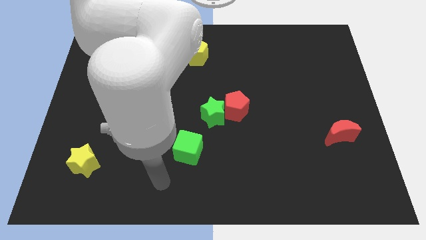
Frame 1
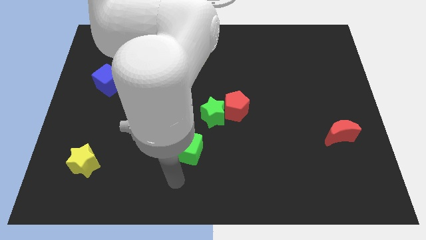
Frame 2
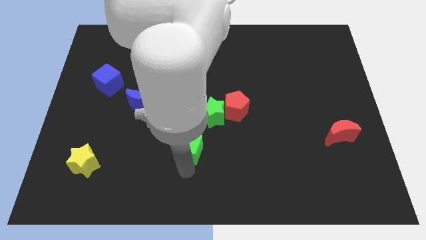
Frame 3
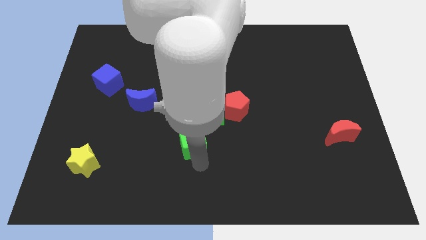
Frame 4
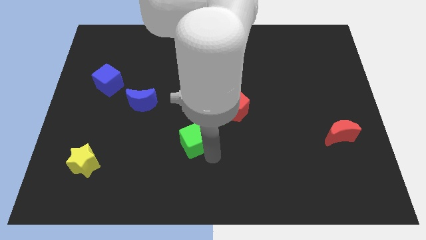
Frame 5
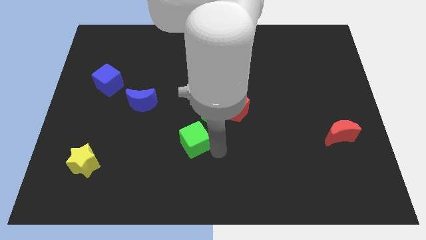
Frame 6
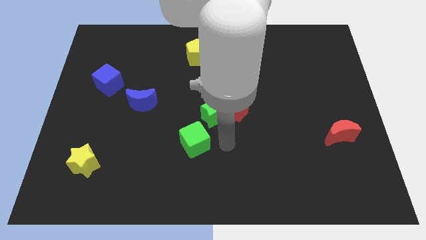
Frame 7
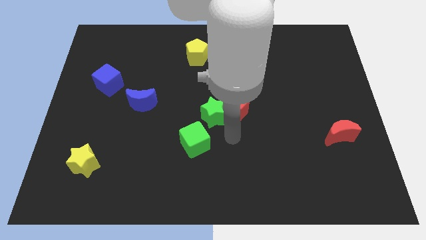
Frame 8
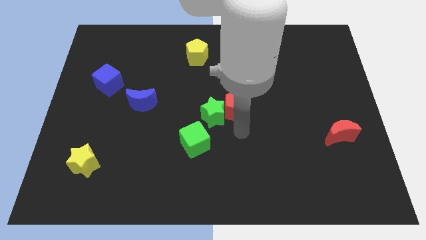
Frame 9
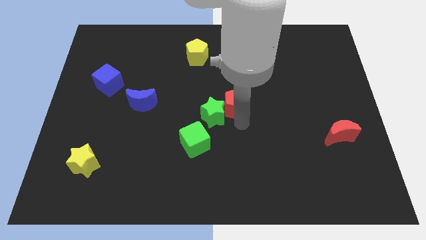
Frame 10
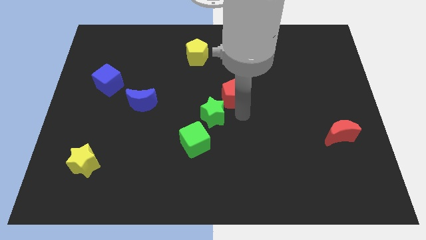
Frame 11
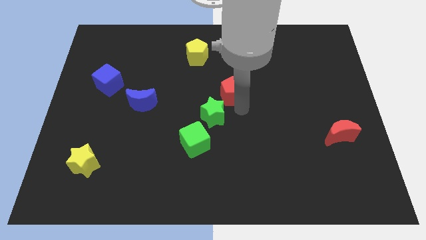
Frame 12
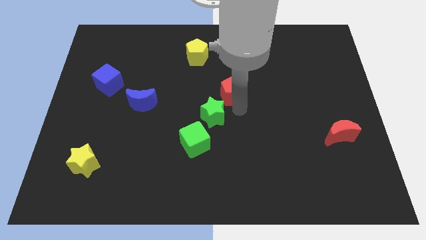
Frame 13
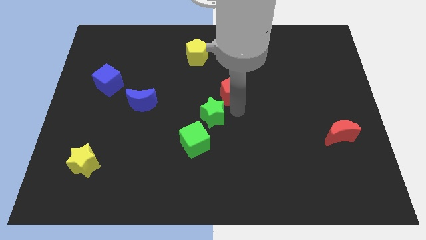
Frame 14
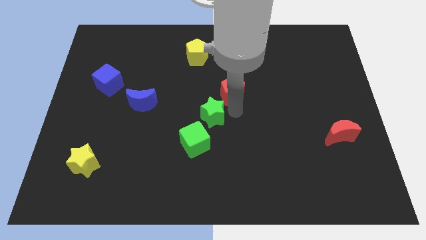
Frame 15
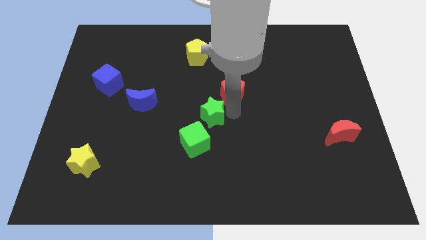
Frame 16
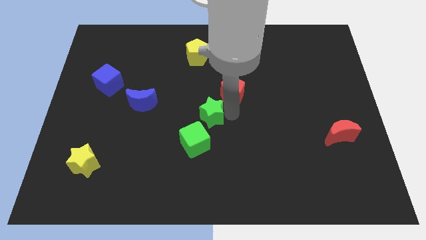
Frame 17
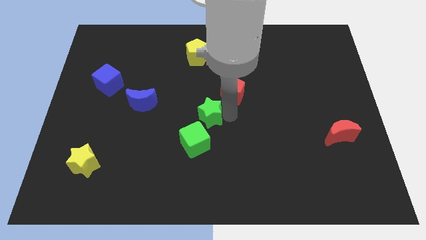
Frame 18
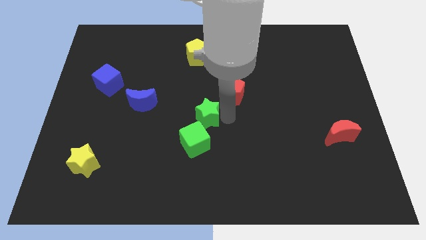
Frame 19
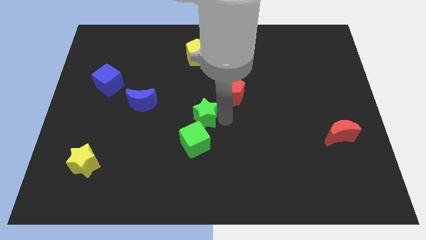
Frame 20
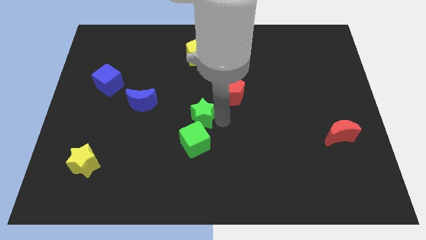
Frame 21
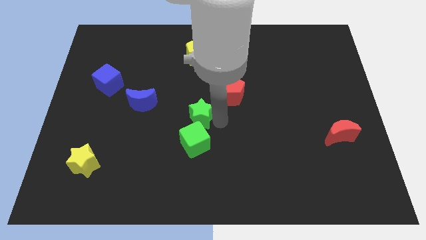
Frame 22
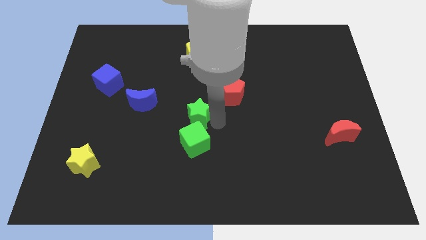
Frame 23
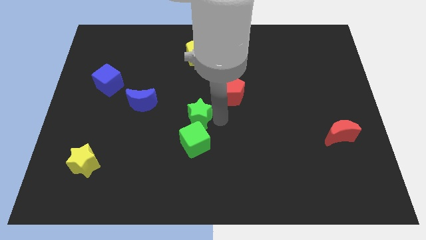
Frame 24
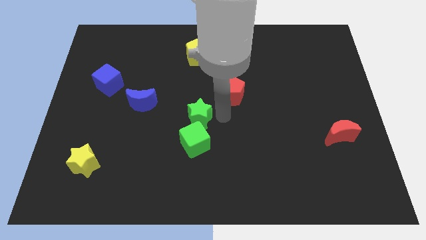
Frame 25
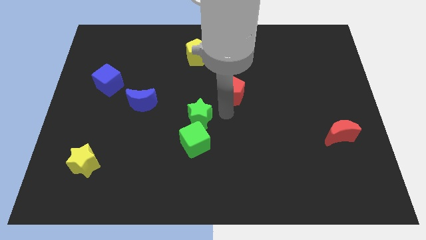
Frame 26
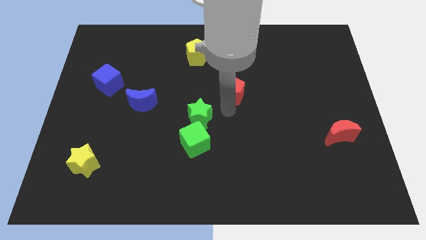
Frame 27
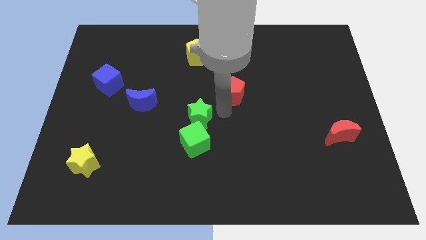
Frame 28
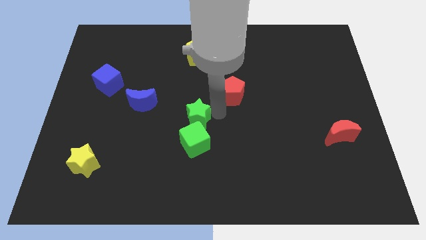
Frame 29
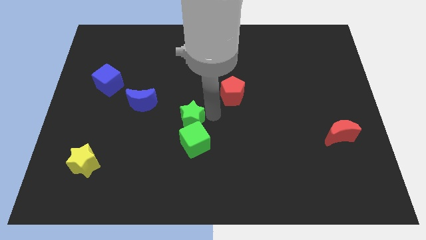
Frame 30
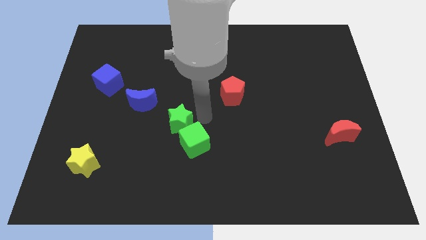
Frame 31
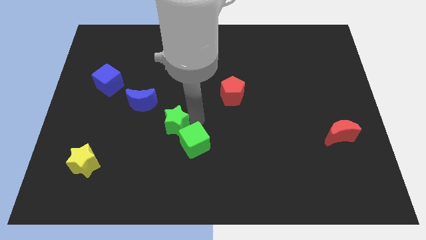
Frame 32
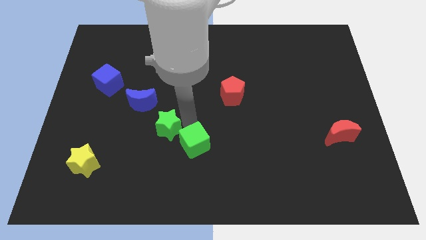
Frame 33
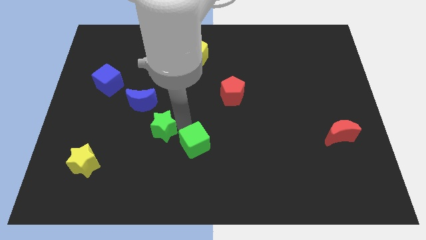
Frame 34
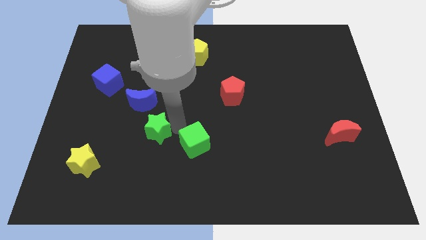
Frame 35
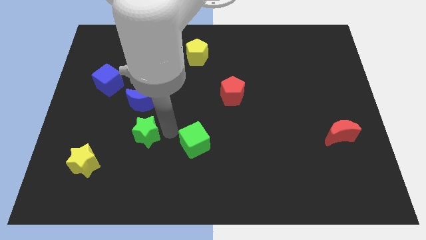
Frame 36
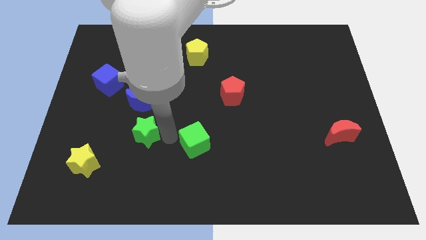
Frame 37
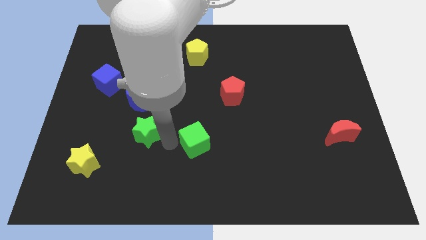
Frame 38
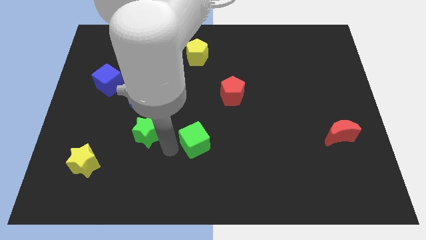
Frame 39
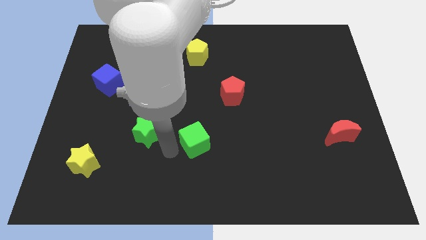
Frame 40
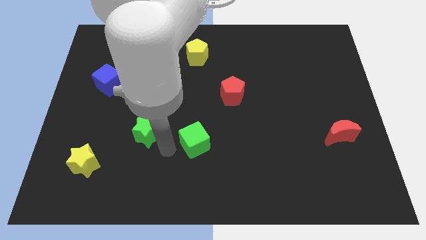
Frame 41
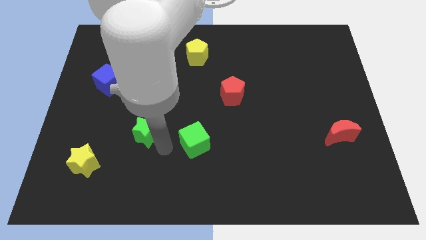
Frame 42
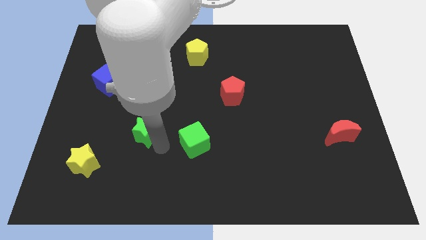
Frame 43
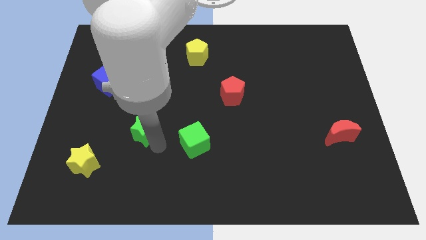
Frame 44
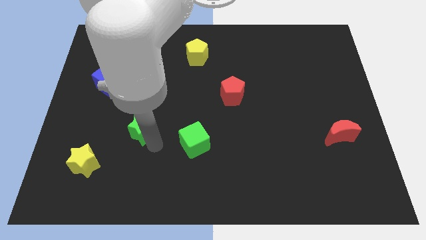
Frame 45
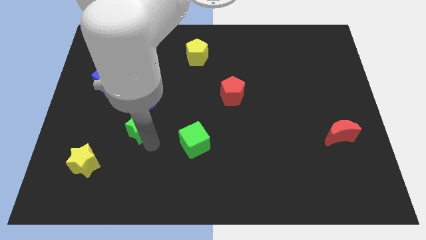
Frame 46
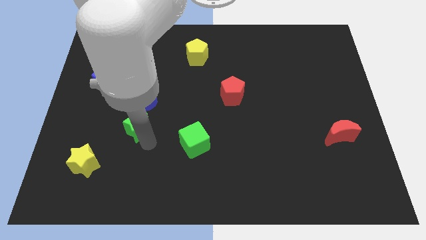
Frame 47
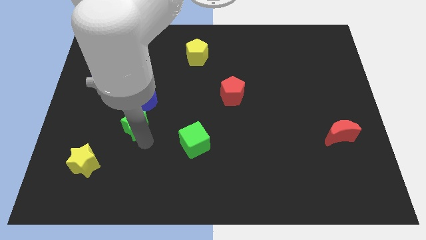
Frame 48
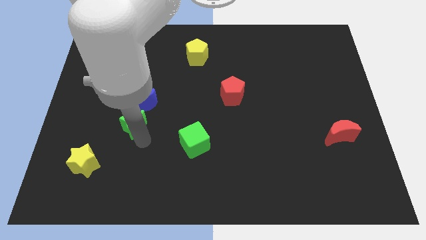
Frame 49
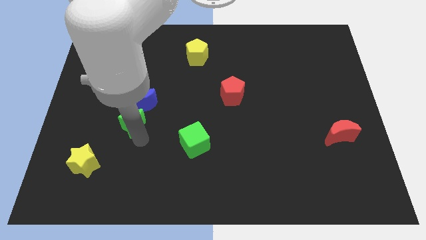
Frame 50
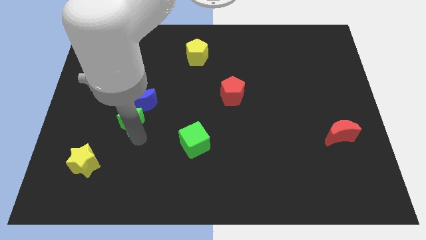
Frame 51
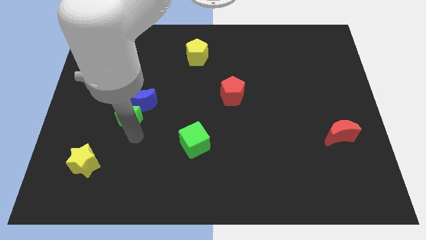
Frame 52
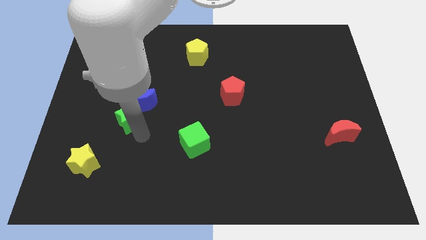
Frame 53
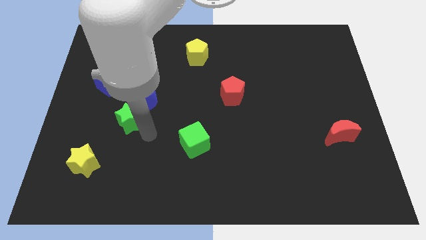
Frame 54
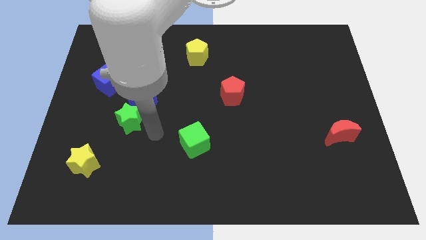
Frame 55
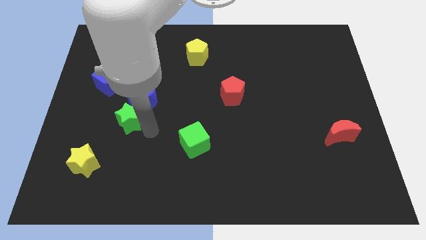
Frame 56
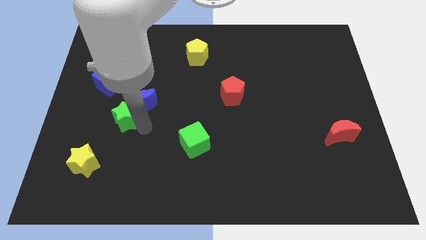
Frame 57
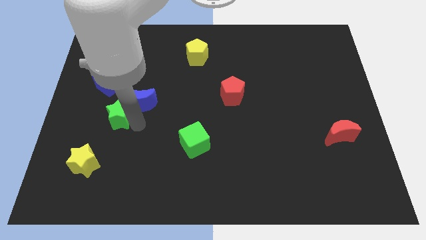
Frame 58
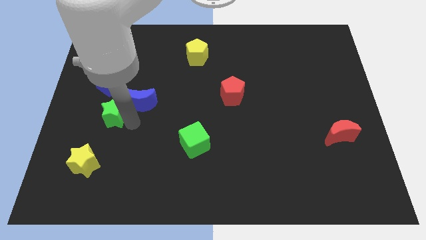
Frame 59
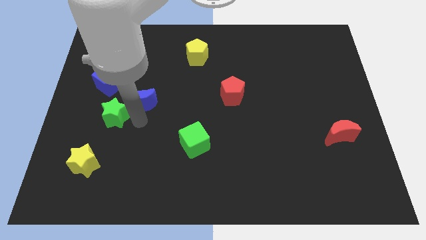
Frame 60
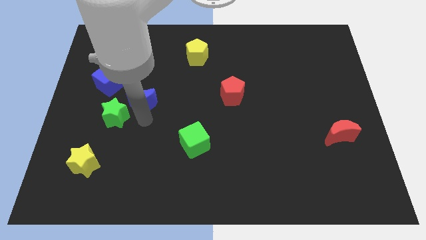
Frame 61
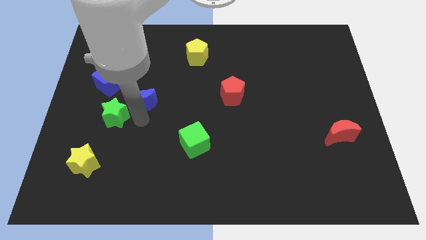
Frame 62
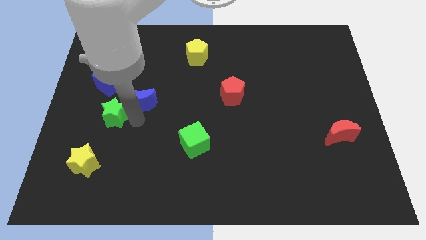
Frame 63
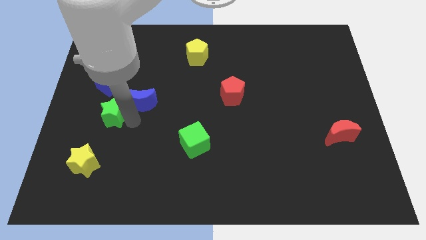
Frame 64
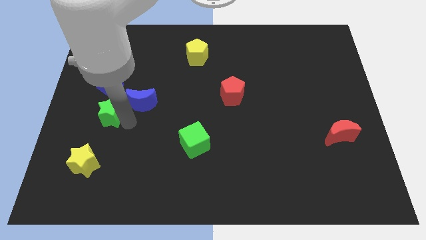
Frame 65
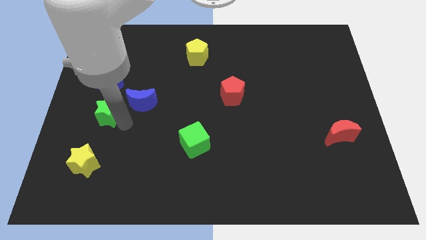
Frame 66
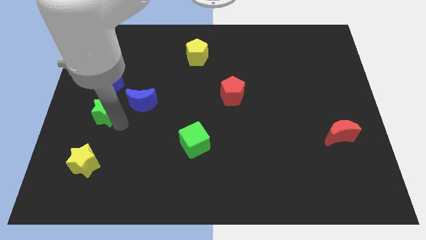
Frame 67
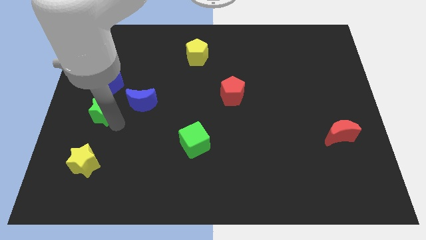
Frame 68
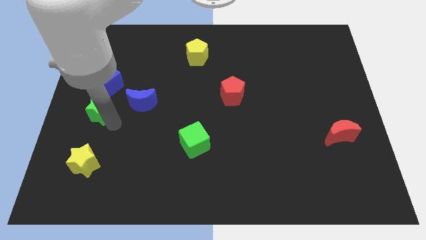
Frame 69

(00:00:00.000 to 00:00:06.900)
move the green star to the center left
